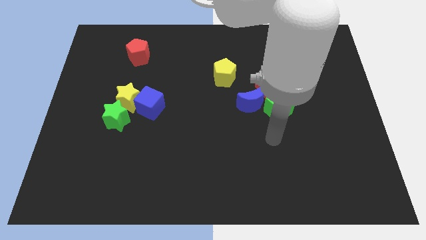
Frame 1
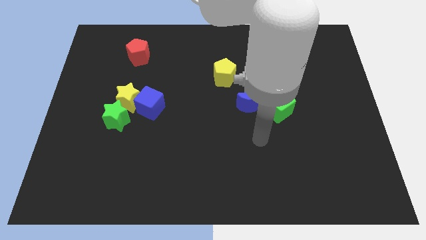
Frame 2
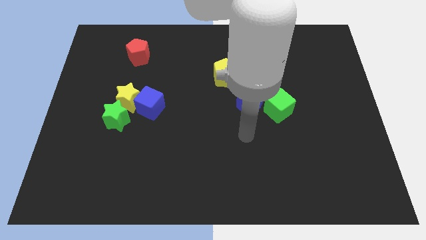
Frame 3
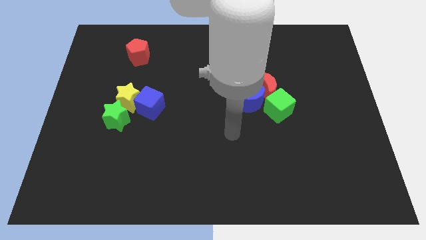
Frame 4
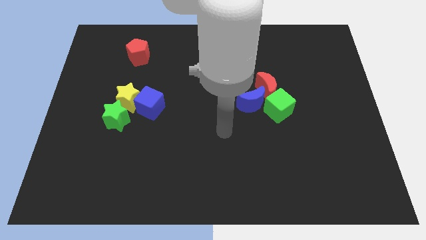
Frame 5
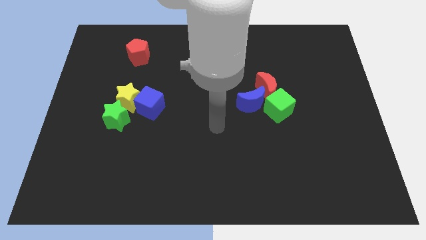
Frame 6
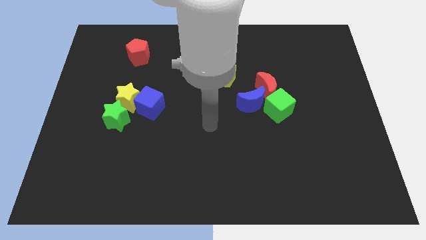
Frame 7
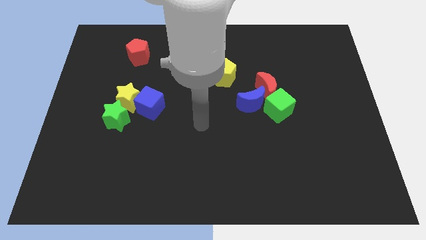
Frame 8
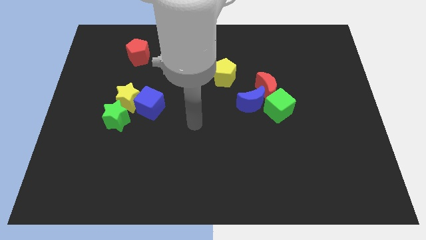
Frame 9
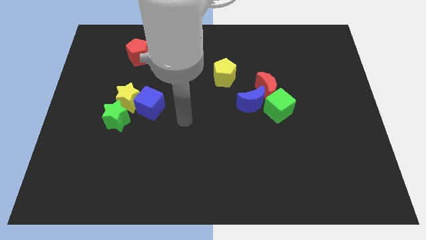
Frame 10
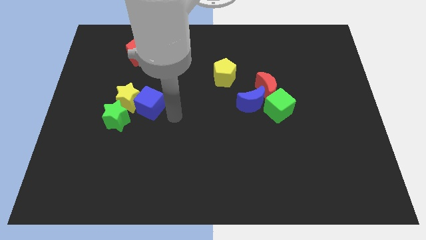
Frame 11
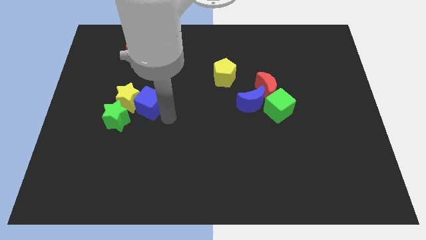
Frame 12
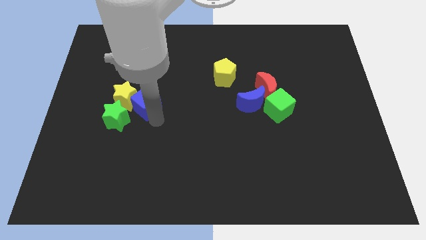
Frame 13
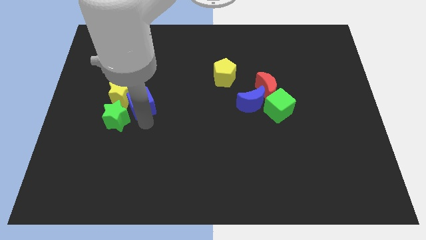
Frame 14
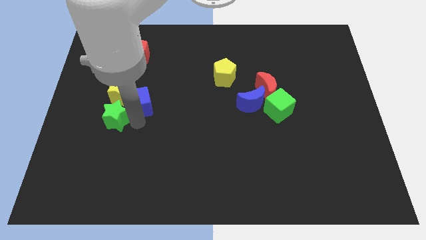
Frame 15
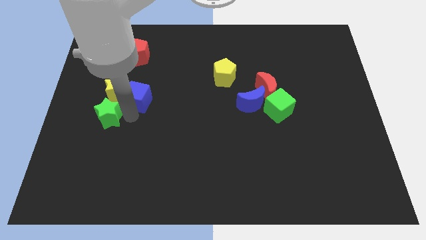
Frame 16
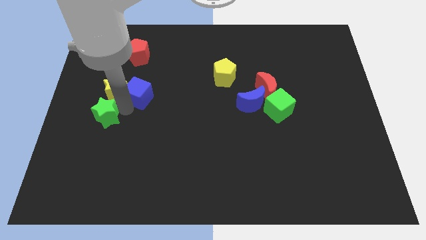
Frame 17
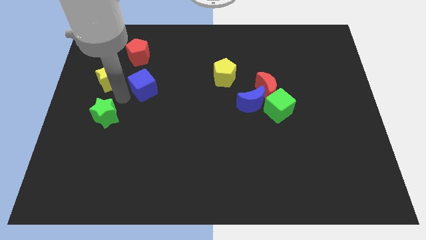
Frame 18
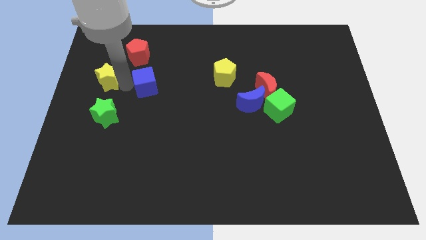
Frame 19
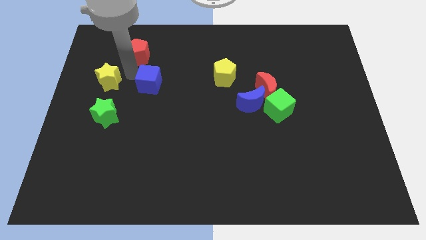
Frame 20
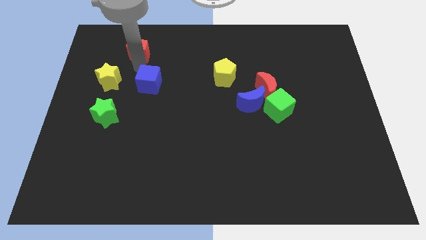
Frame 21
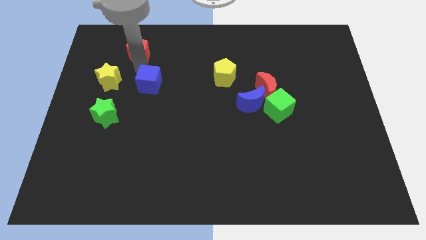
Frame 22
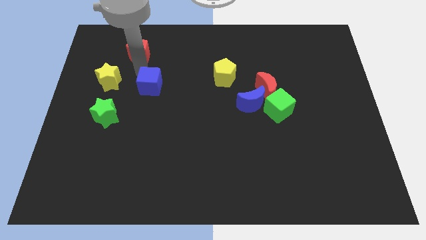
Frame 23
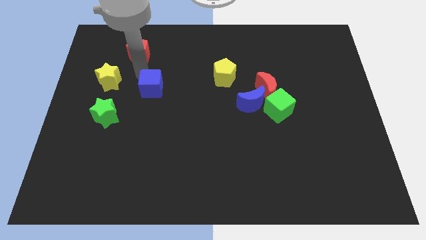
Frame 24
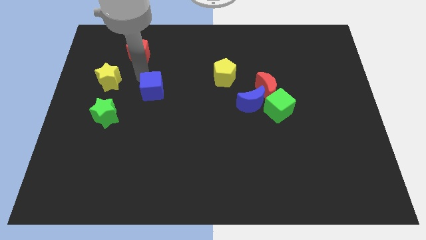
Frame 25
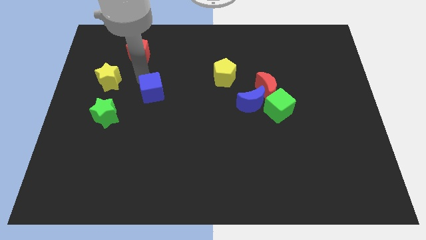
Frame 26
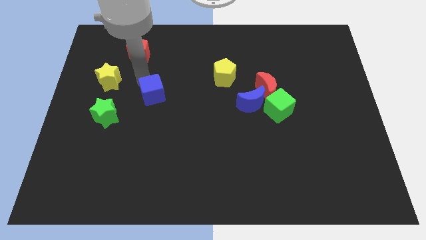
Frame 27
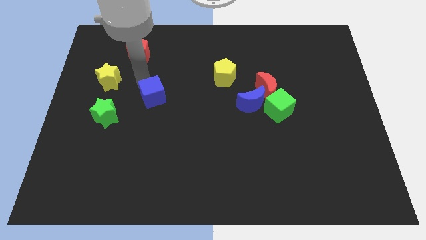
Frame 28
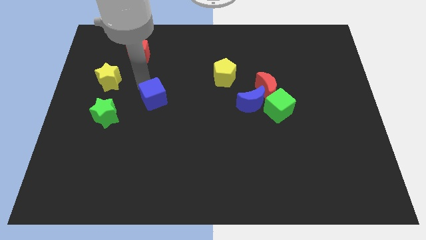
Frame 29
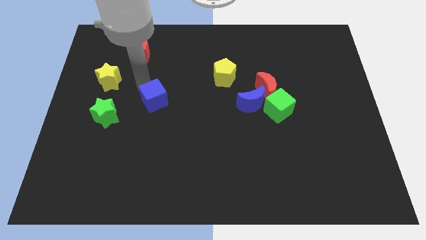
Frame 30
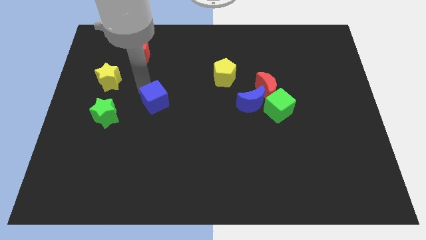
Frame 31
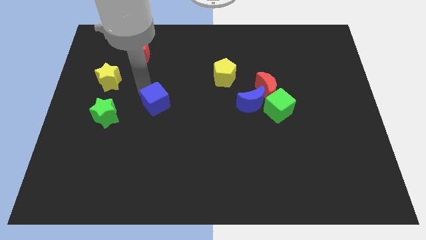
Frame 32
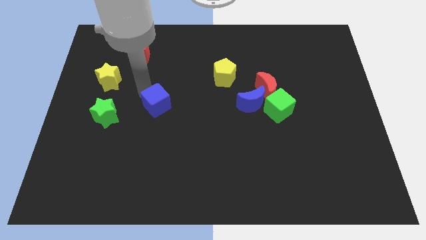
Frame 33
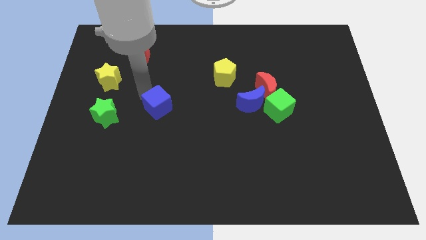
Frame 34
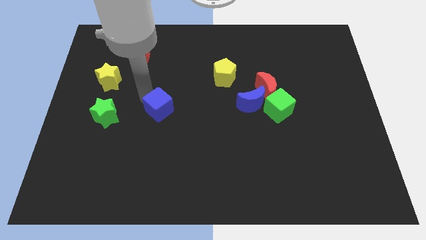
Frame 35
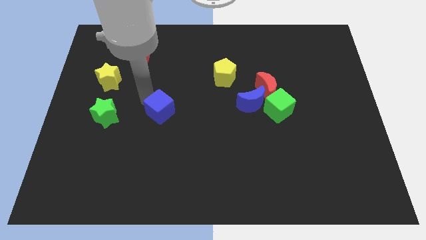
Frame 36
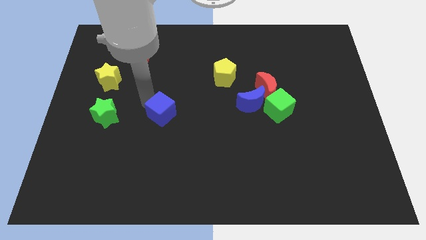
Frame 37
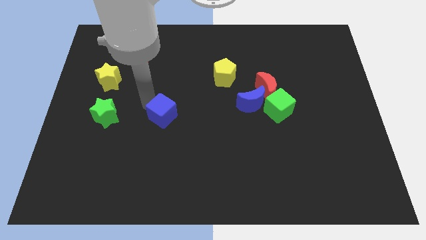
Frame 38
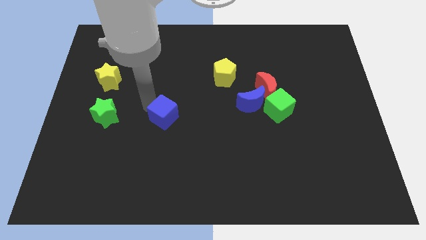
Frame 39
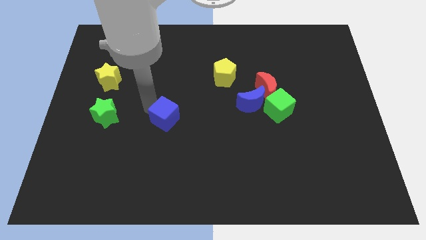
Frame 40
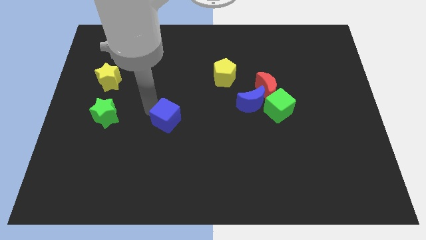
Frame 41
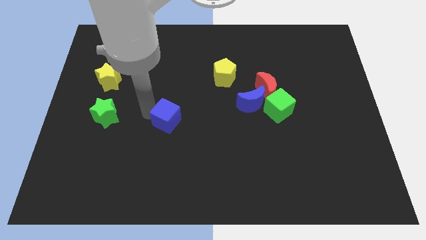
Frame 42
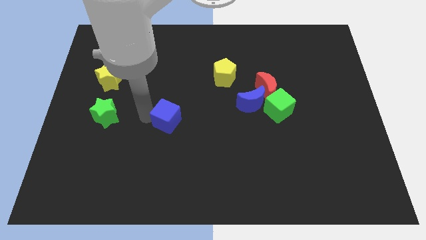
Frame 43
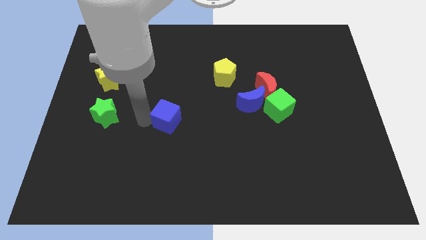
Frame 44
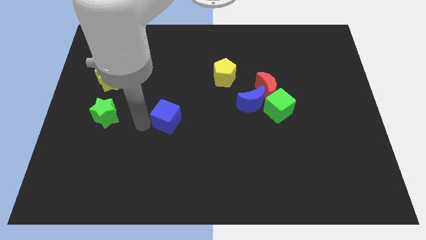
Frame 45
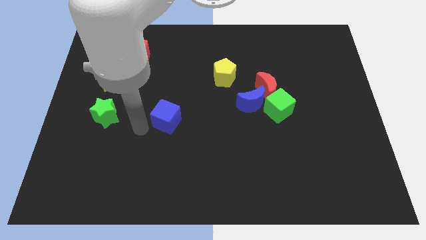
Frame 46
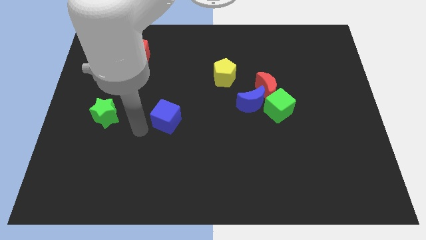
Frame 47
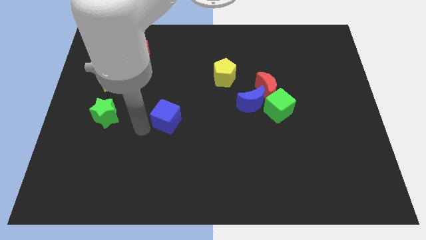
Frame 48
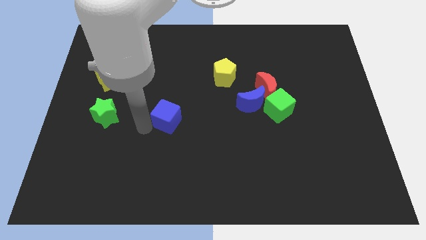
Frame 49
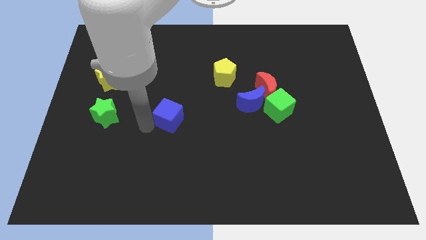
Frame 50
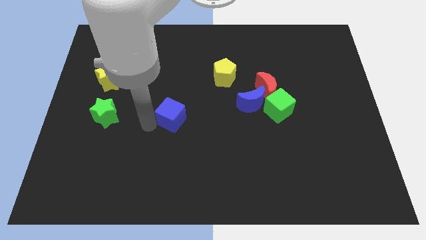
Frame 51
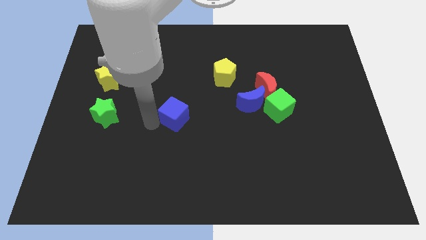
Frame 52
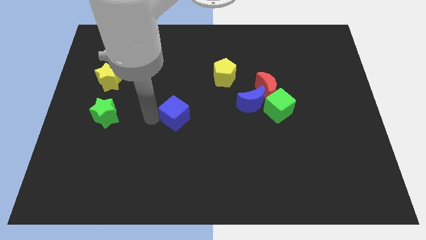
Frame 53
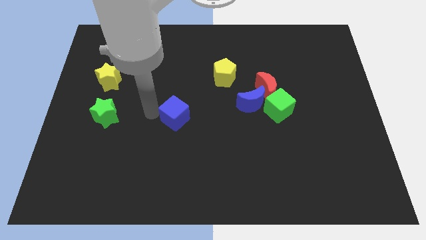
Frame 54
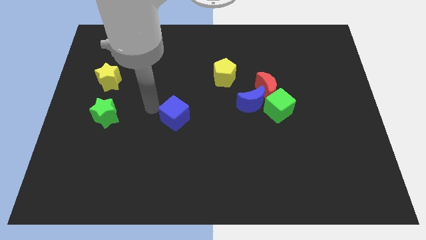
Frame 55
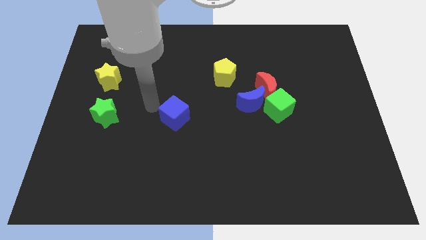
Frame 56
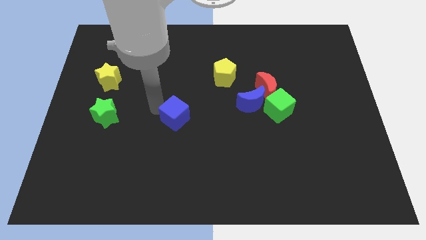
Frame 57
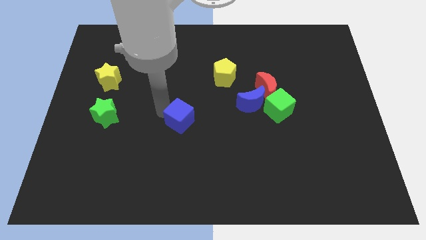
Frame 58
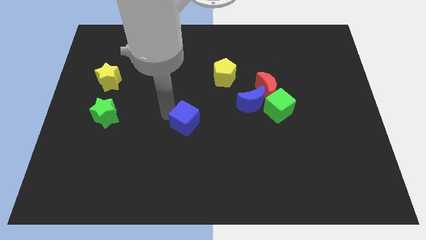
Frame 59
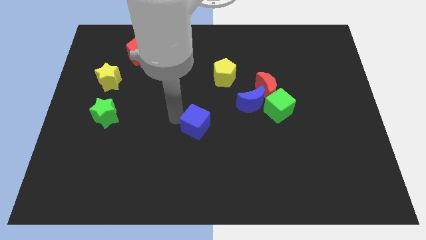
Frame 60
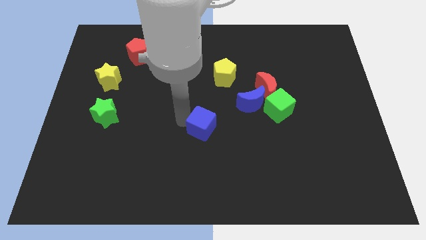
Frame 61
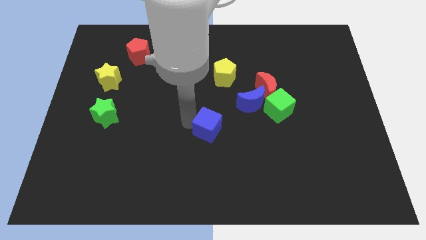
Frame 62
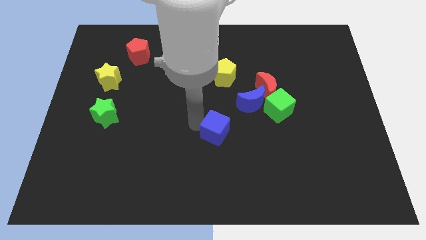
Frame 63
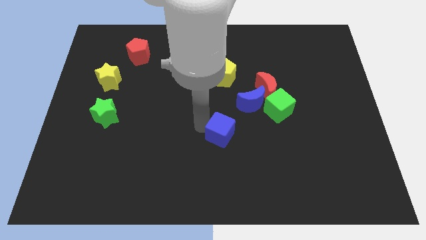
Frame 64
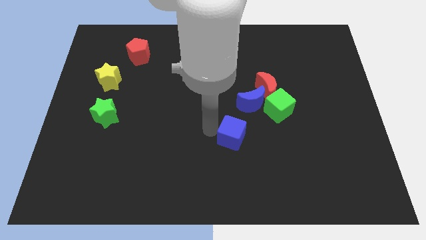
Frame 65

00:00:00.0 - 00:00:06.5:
move the blue cube below the blue moon

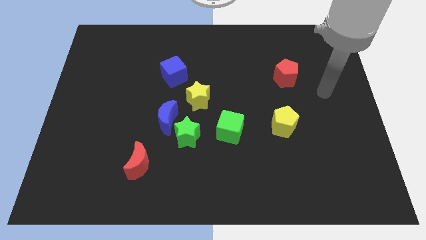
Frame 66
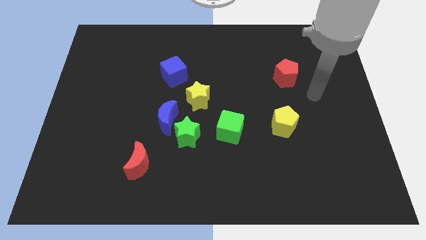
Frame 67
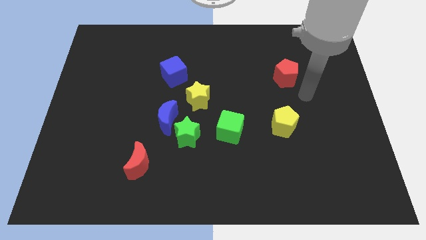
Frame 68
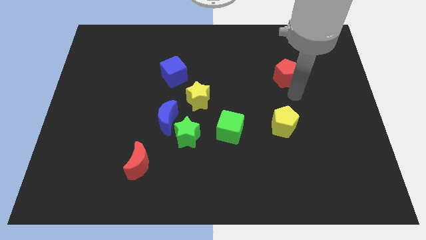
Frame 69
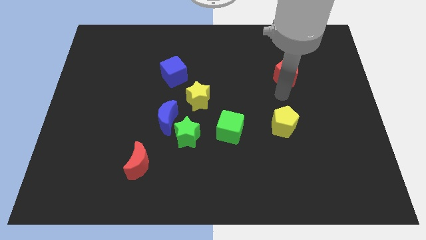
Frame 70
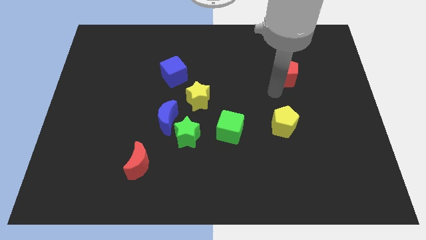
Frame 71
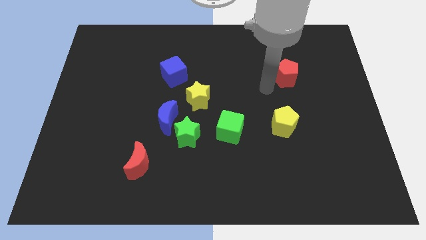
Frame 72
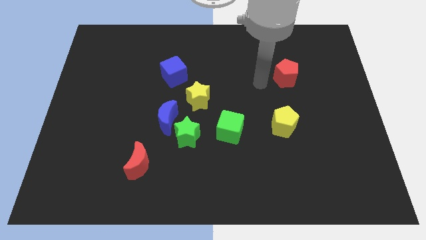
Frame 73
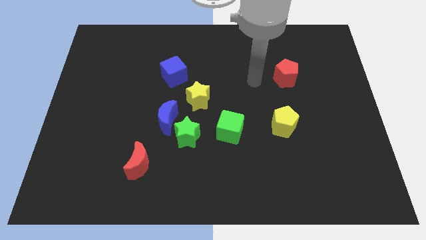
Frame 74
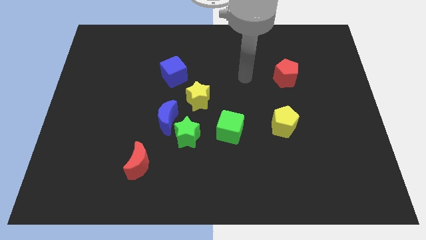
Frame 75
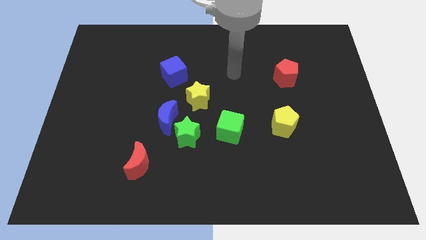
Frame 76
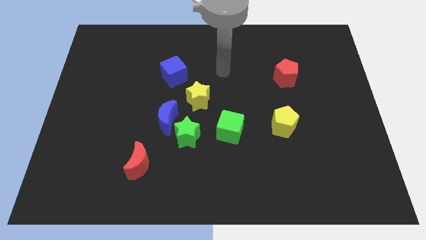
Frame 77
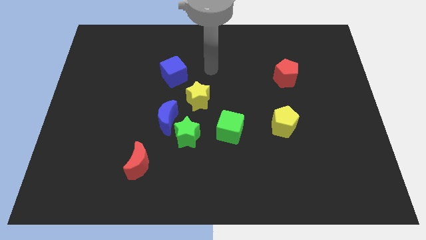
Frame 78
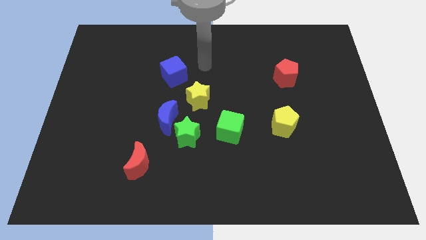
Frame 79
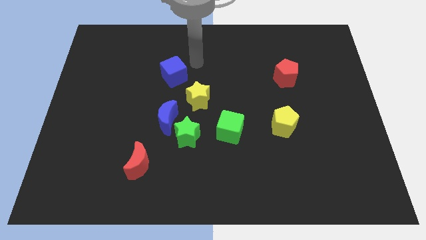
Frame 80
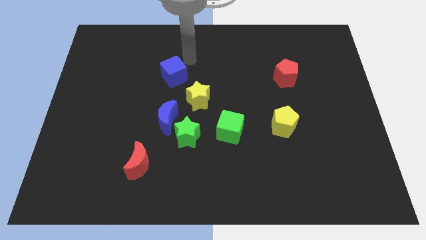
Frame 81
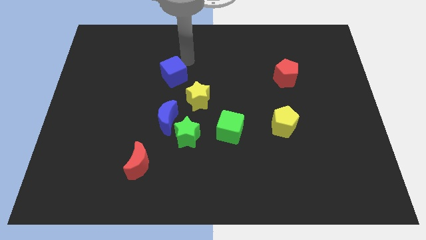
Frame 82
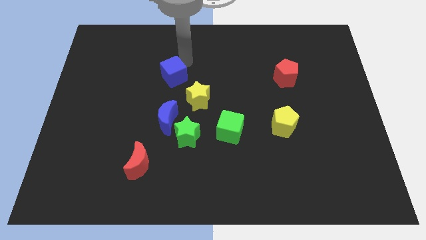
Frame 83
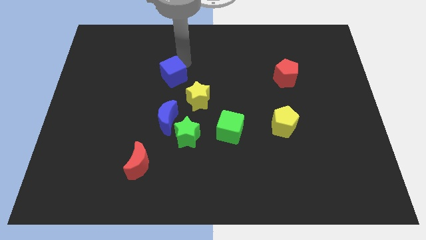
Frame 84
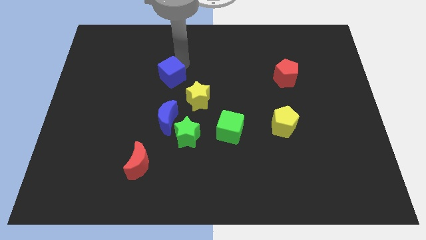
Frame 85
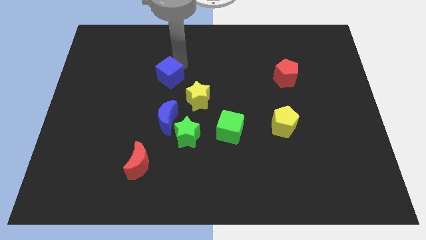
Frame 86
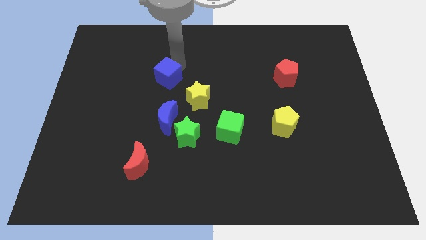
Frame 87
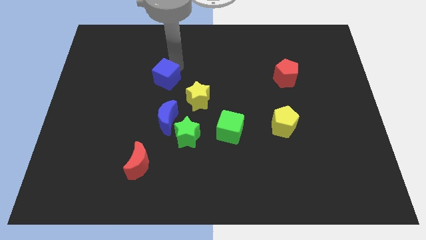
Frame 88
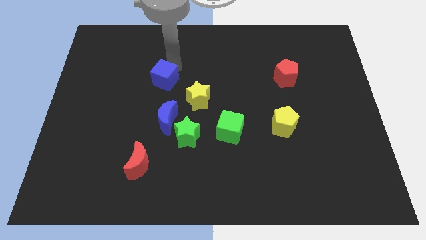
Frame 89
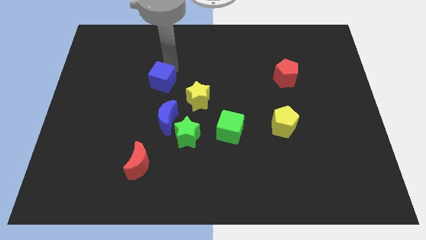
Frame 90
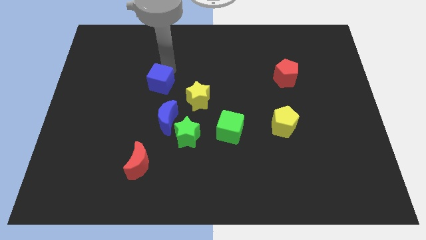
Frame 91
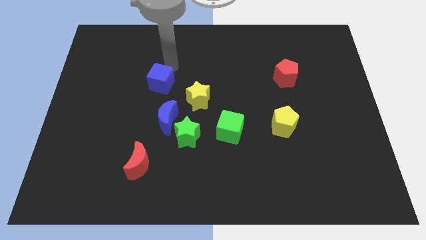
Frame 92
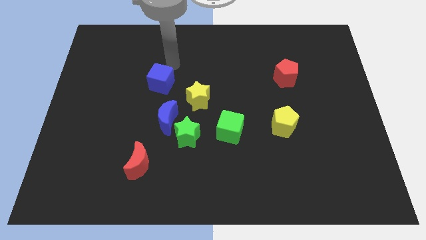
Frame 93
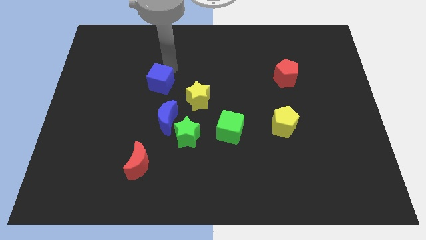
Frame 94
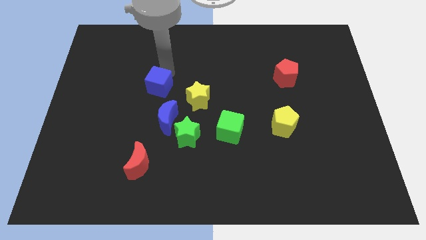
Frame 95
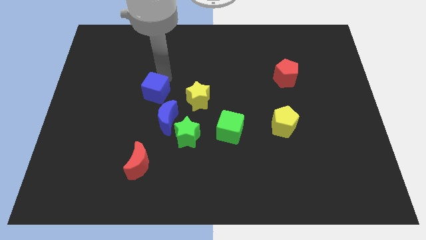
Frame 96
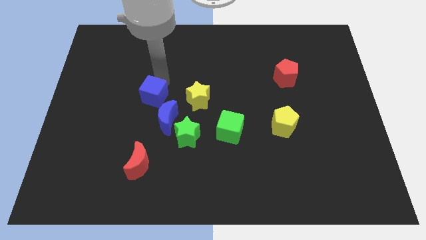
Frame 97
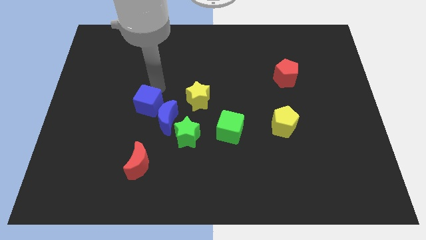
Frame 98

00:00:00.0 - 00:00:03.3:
push the blue cube to the top of the red moon
